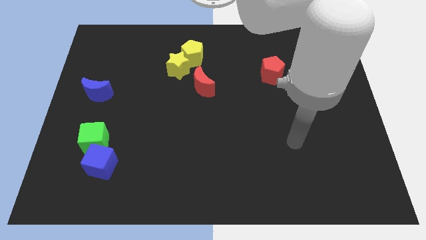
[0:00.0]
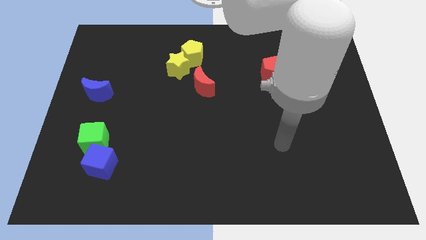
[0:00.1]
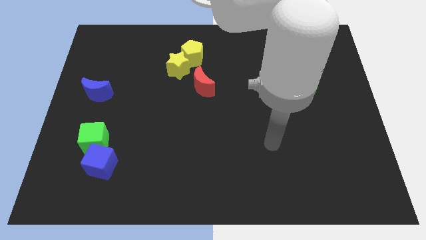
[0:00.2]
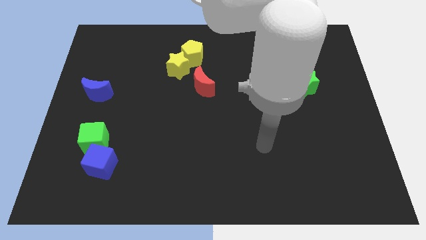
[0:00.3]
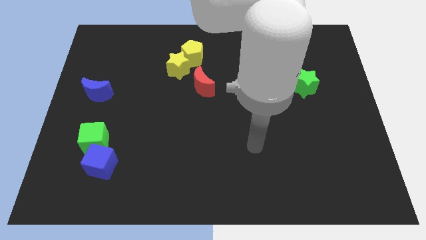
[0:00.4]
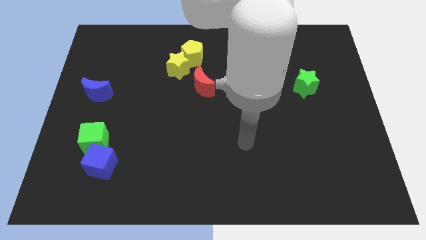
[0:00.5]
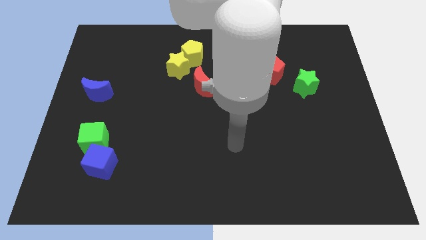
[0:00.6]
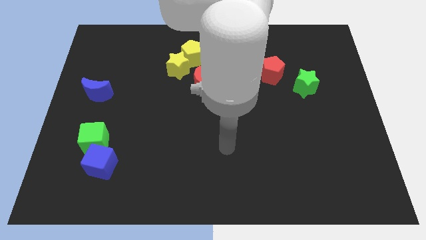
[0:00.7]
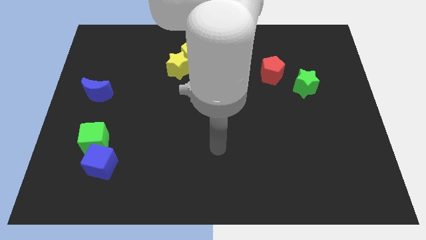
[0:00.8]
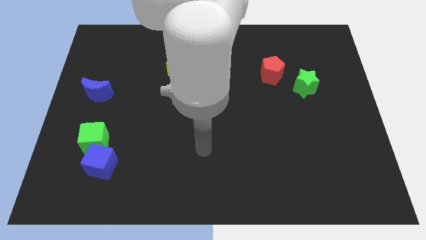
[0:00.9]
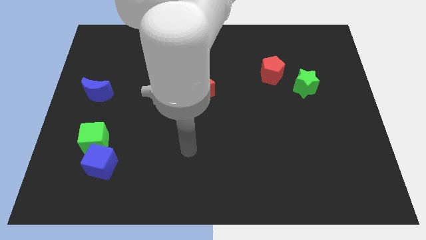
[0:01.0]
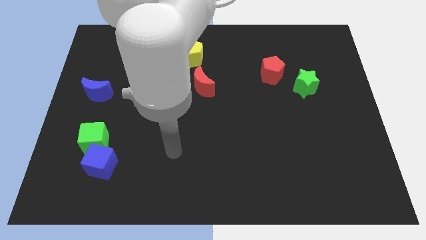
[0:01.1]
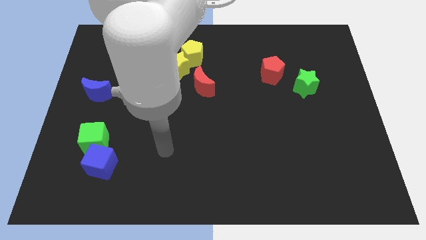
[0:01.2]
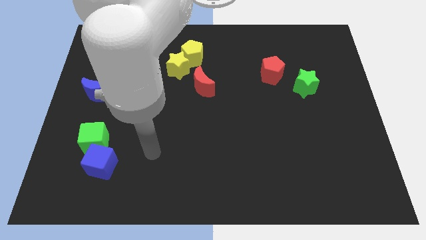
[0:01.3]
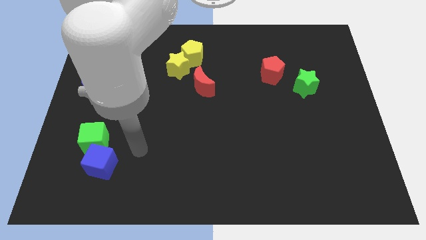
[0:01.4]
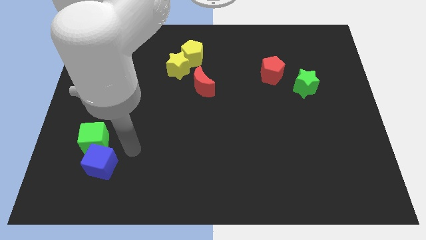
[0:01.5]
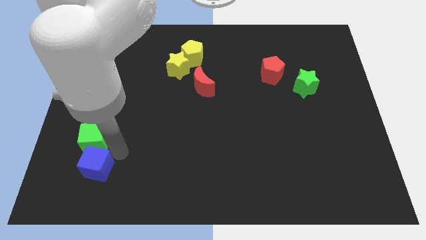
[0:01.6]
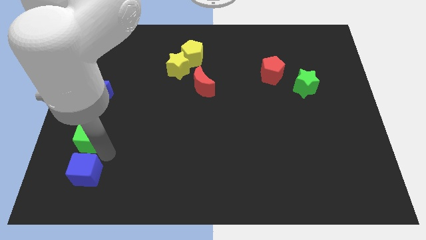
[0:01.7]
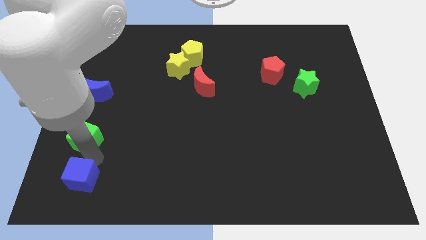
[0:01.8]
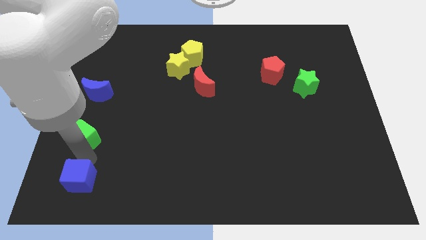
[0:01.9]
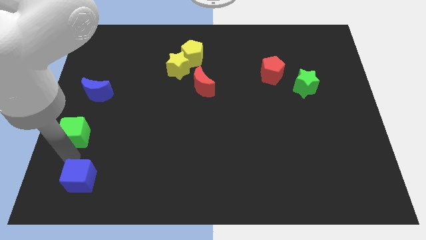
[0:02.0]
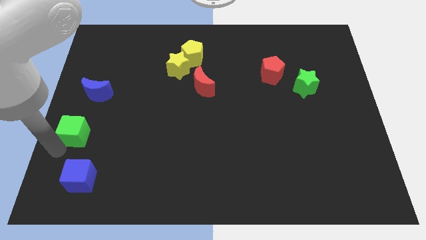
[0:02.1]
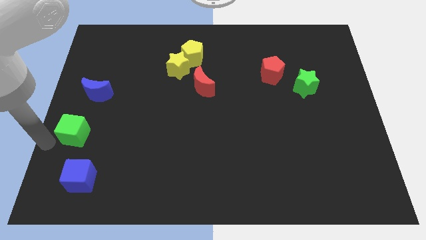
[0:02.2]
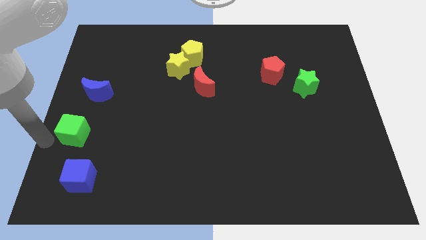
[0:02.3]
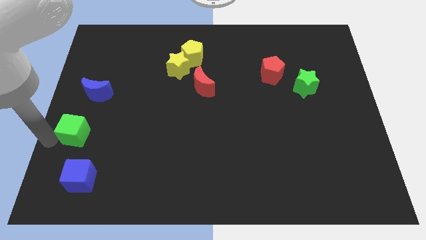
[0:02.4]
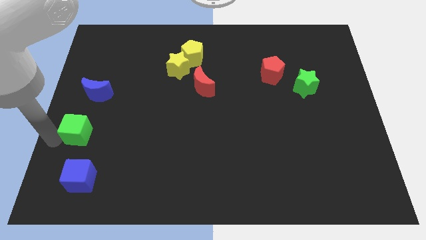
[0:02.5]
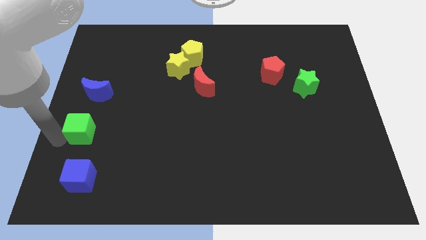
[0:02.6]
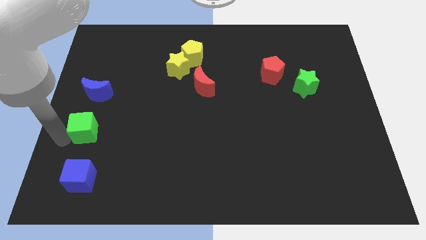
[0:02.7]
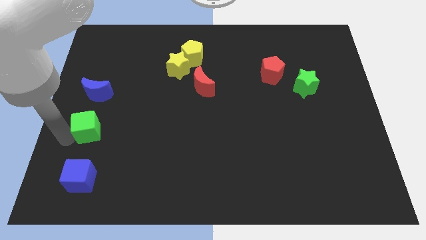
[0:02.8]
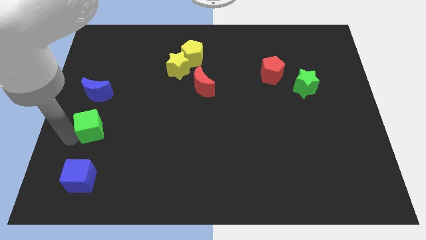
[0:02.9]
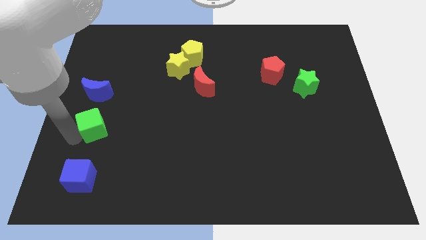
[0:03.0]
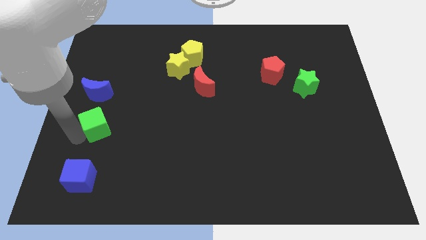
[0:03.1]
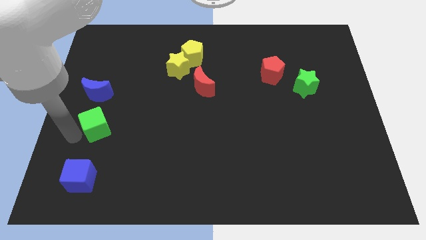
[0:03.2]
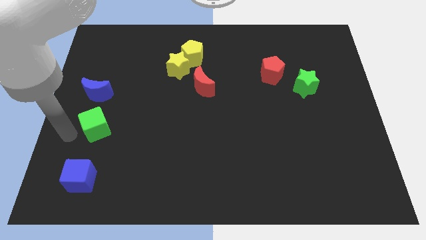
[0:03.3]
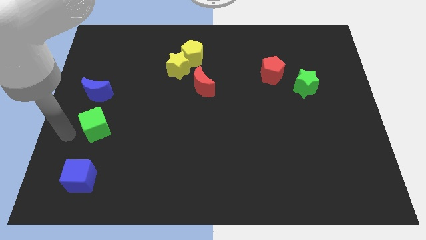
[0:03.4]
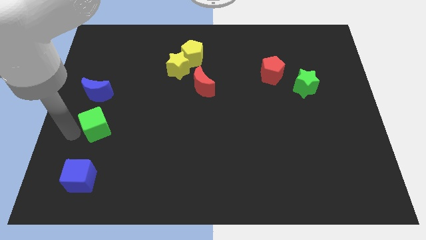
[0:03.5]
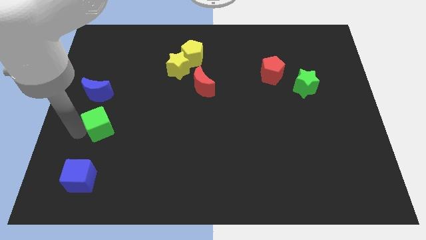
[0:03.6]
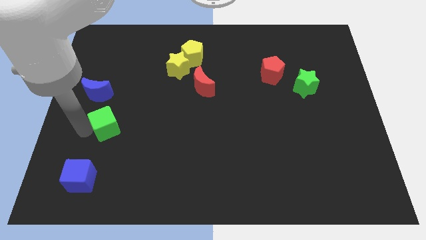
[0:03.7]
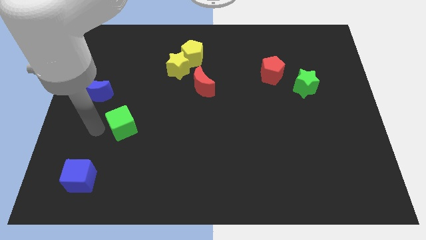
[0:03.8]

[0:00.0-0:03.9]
move the green cube upwards and right diagonally a little bit

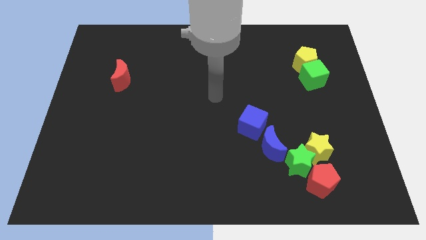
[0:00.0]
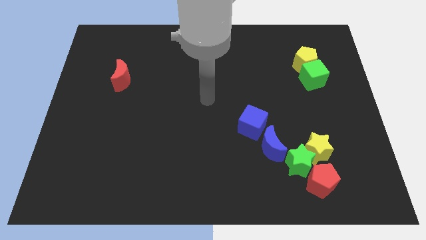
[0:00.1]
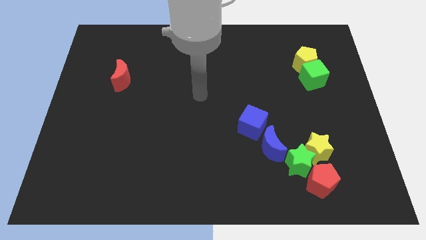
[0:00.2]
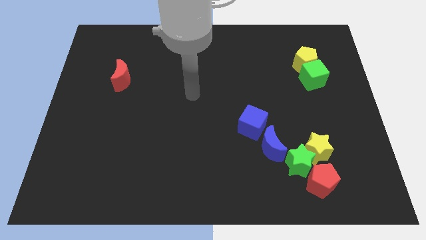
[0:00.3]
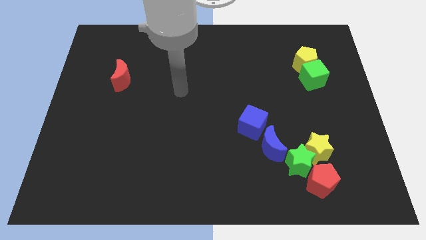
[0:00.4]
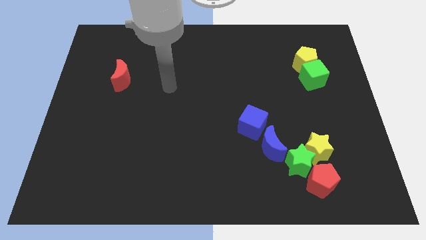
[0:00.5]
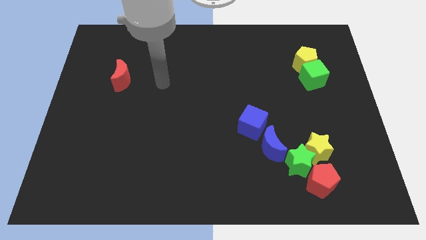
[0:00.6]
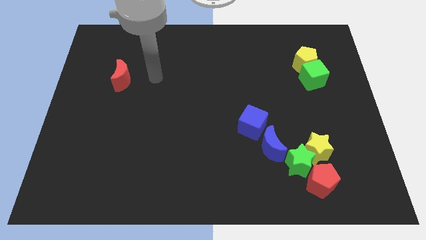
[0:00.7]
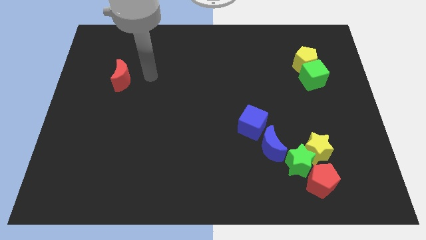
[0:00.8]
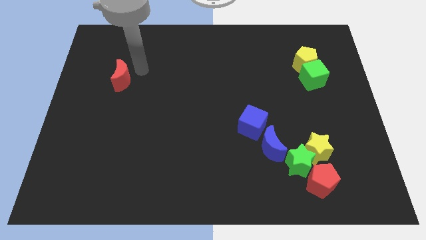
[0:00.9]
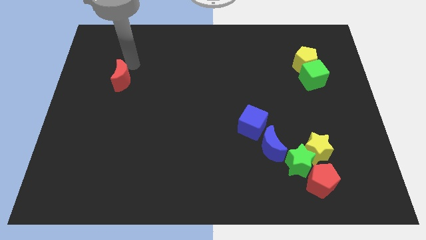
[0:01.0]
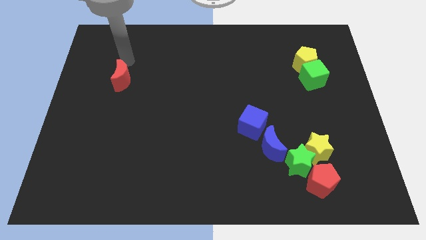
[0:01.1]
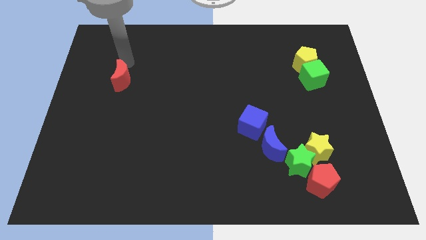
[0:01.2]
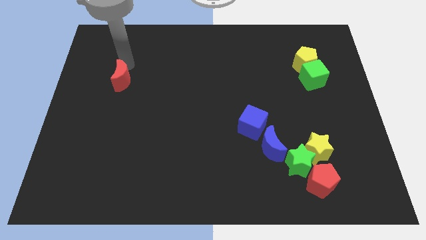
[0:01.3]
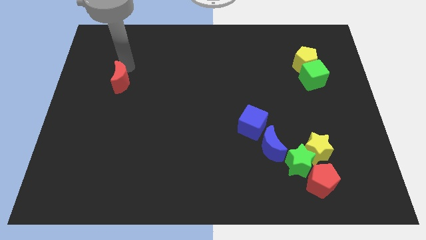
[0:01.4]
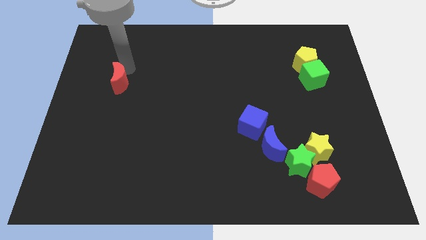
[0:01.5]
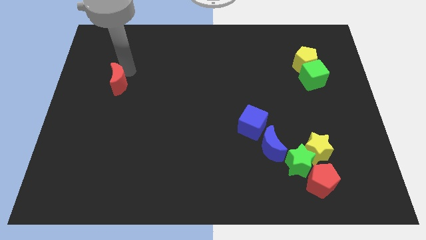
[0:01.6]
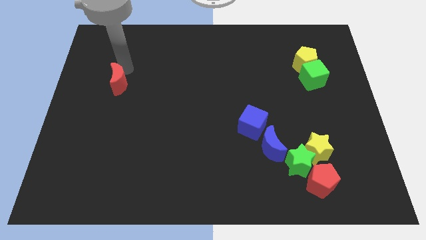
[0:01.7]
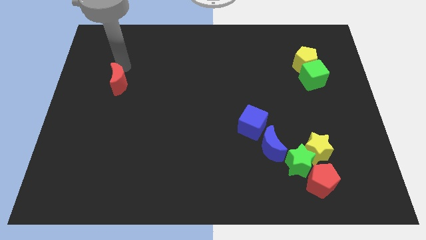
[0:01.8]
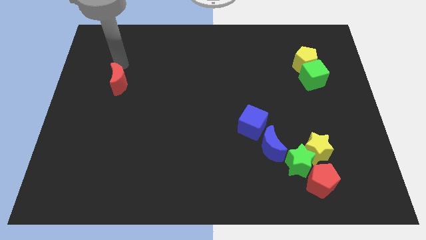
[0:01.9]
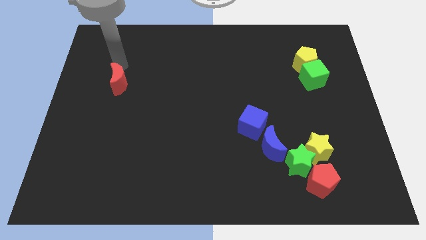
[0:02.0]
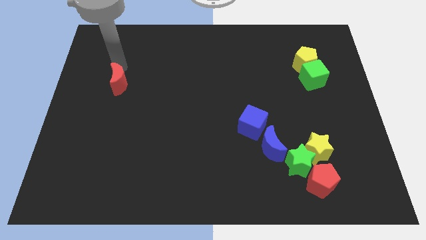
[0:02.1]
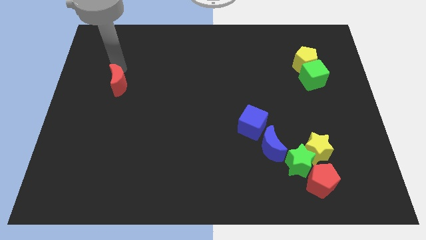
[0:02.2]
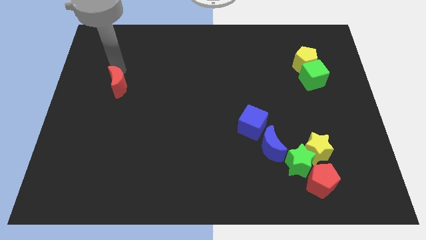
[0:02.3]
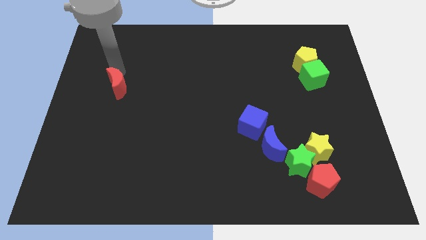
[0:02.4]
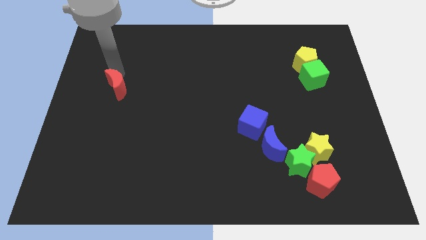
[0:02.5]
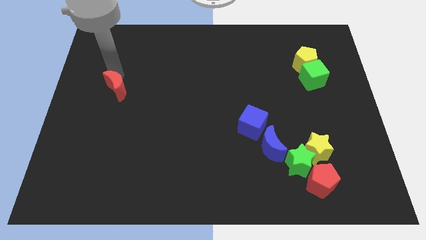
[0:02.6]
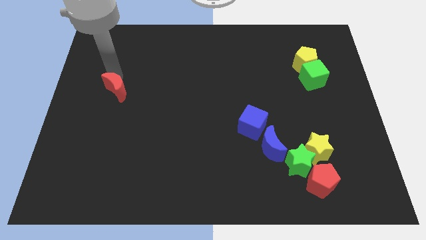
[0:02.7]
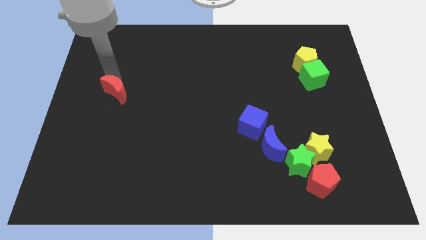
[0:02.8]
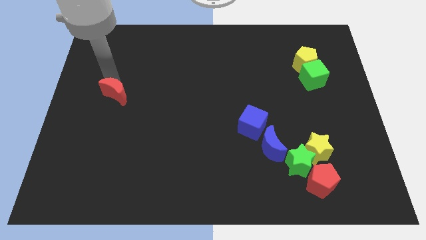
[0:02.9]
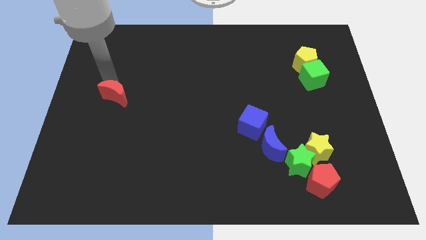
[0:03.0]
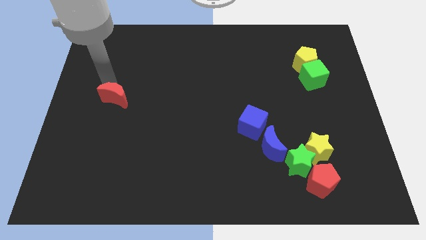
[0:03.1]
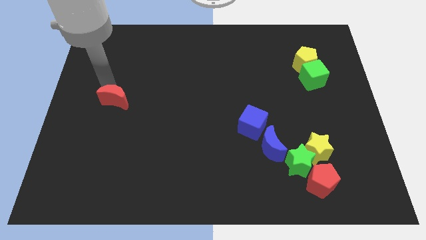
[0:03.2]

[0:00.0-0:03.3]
move the red moon downwards a bit

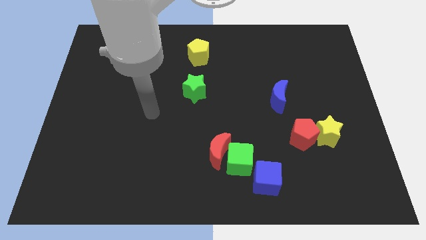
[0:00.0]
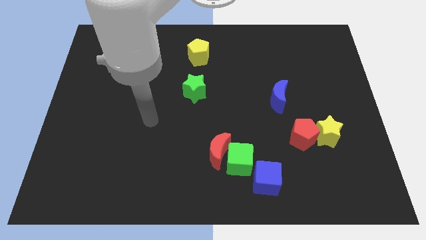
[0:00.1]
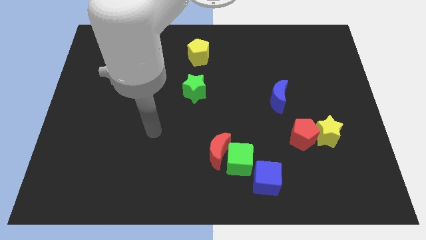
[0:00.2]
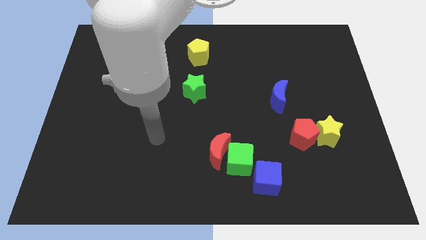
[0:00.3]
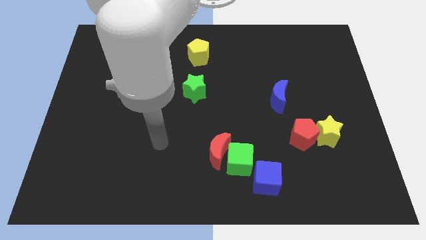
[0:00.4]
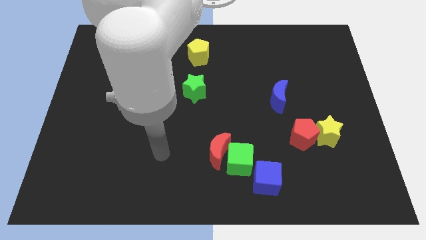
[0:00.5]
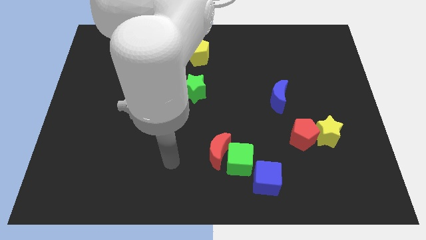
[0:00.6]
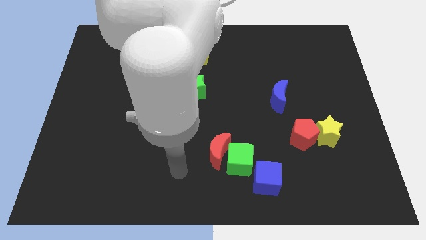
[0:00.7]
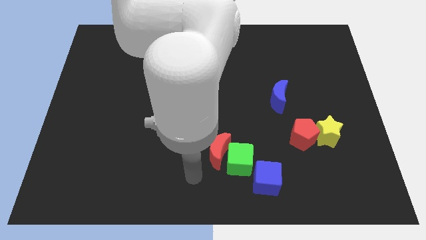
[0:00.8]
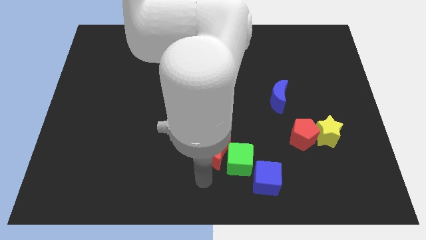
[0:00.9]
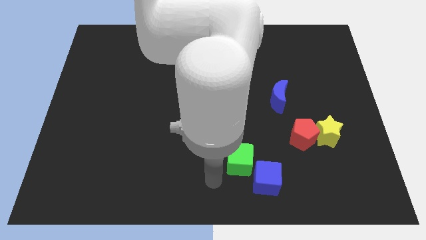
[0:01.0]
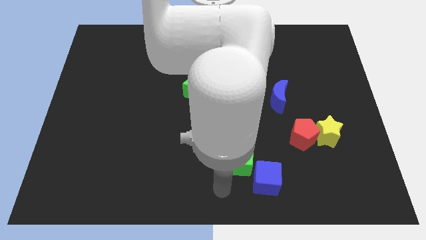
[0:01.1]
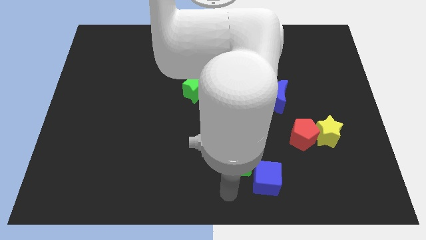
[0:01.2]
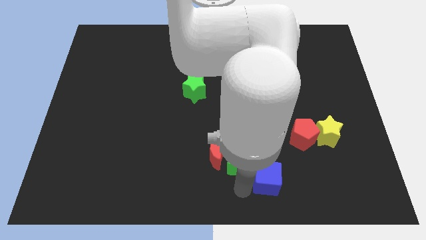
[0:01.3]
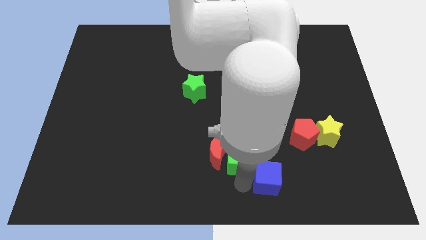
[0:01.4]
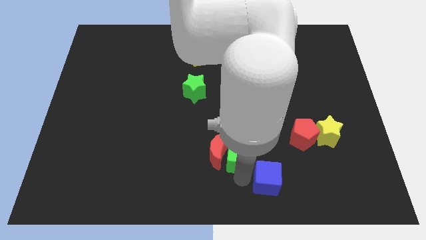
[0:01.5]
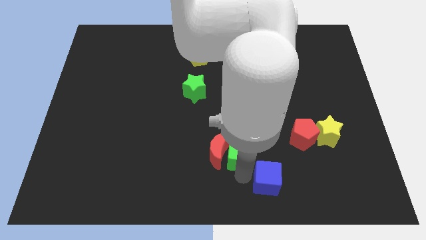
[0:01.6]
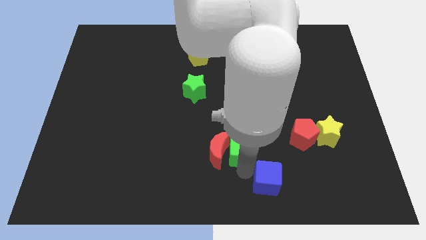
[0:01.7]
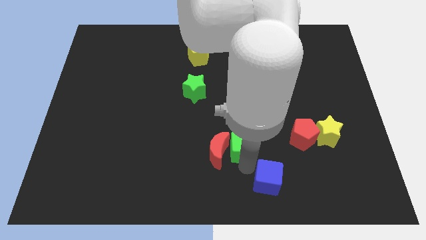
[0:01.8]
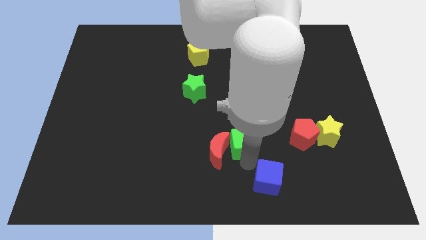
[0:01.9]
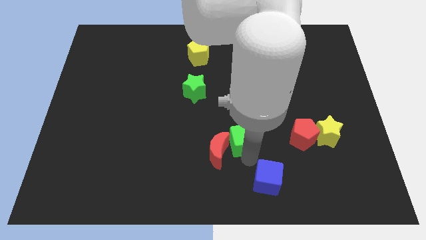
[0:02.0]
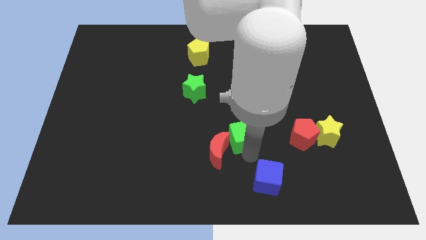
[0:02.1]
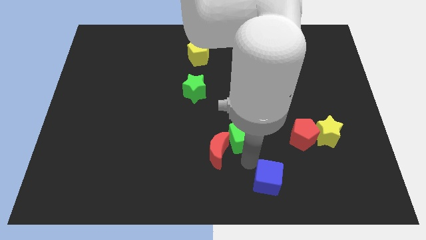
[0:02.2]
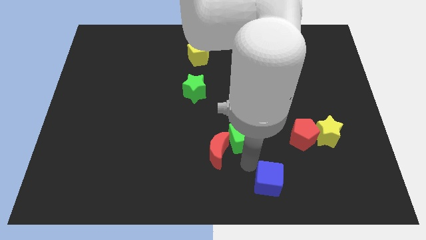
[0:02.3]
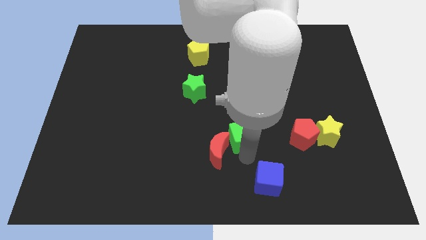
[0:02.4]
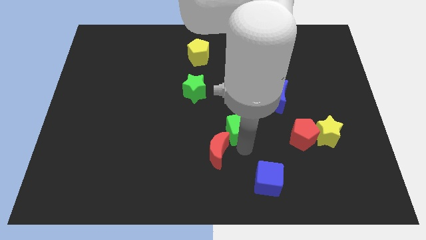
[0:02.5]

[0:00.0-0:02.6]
slide the green cube upwards a bit
